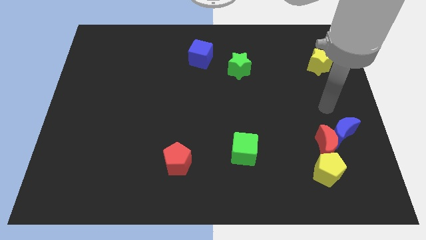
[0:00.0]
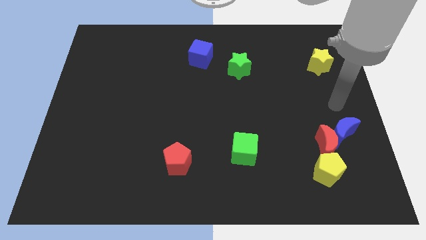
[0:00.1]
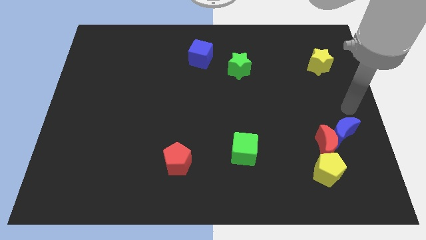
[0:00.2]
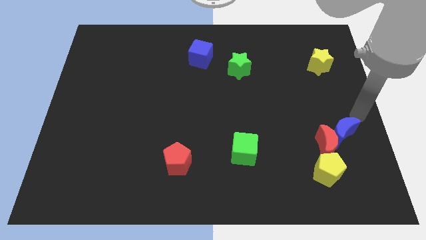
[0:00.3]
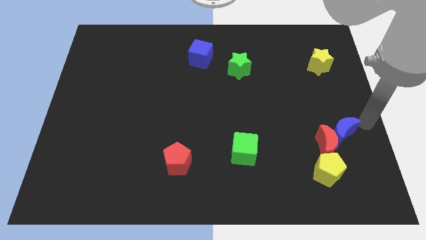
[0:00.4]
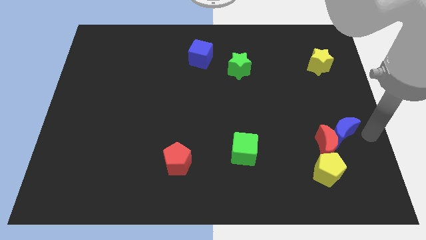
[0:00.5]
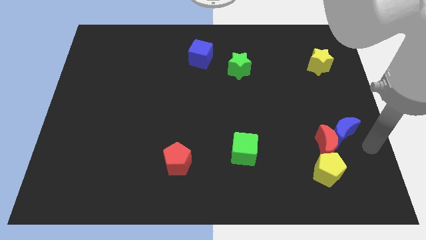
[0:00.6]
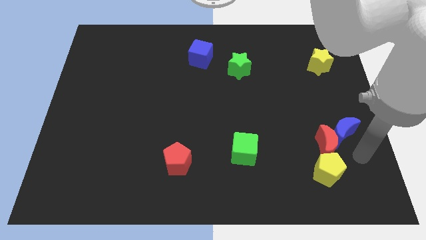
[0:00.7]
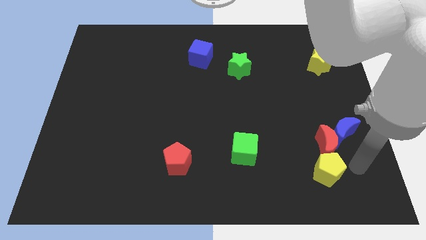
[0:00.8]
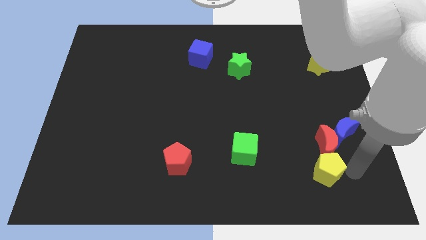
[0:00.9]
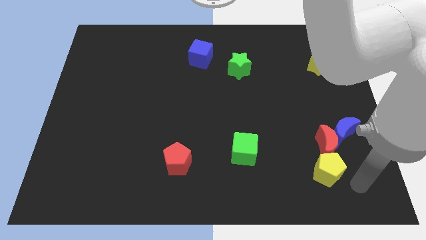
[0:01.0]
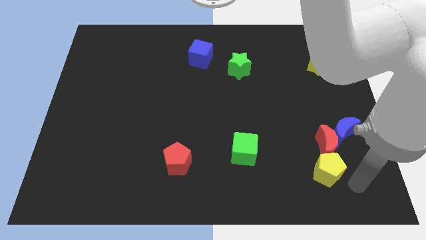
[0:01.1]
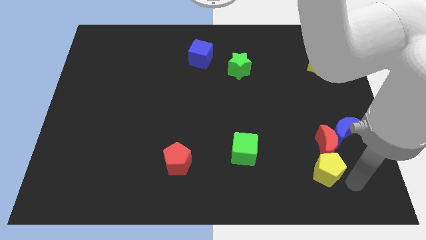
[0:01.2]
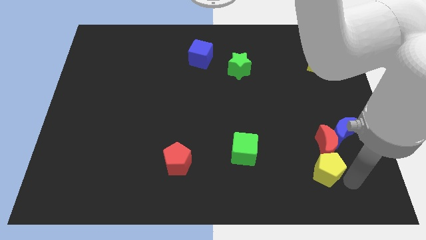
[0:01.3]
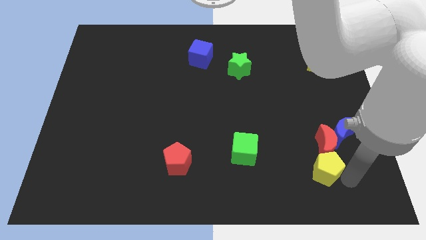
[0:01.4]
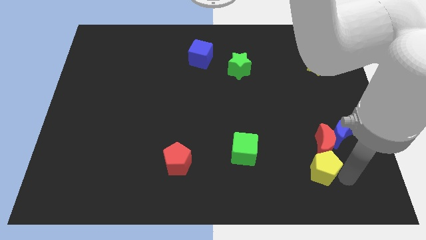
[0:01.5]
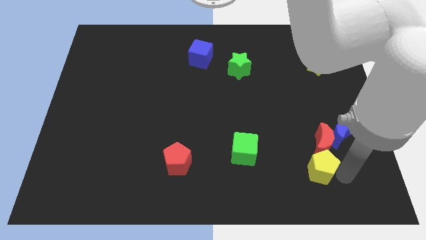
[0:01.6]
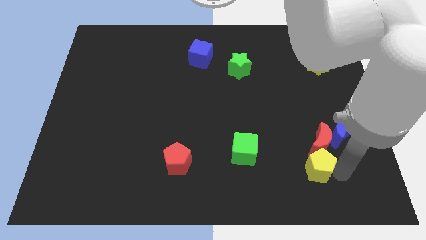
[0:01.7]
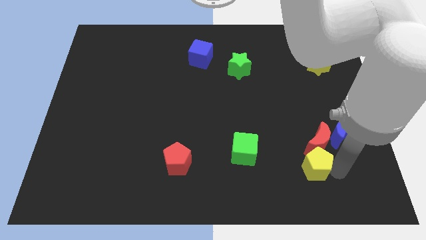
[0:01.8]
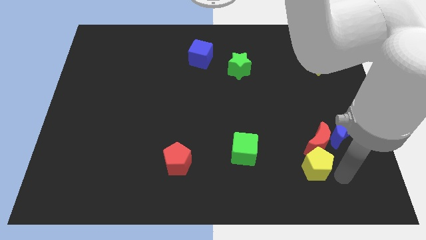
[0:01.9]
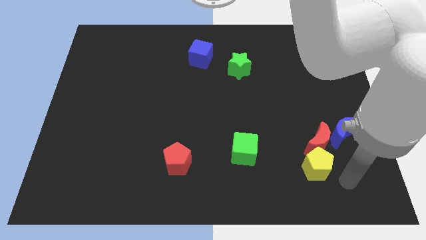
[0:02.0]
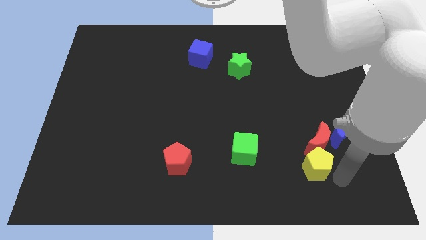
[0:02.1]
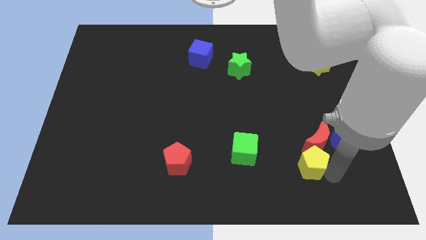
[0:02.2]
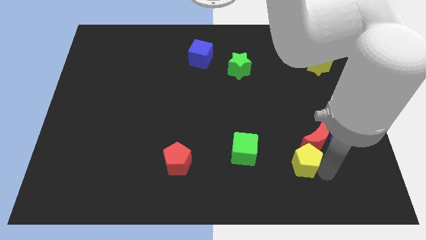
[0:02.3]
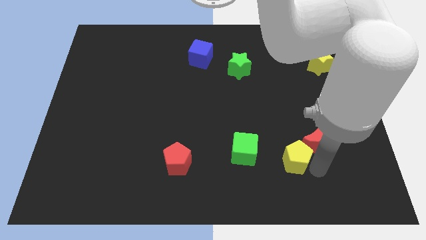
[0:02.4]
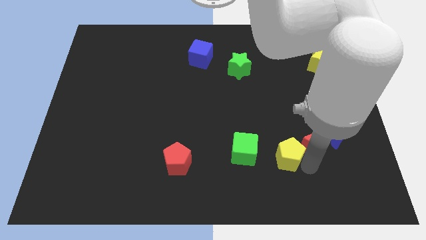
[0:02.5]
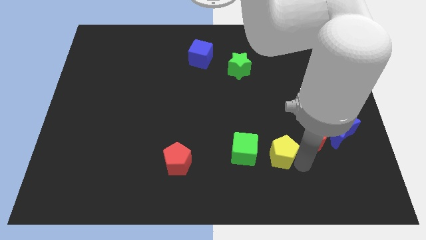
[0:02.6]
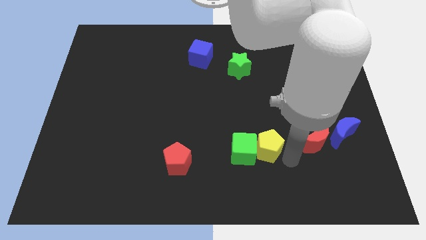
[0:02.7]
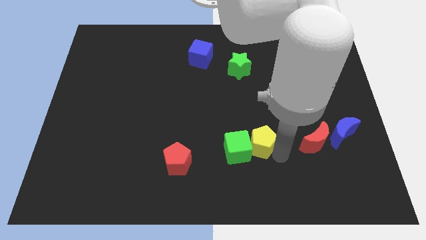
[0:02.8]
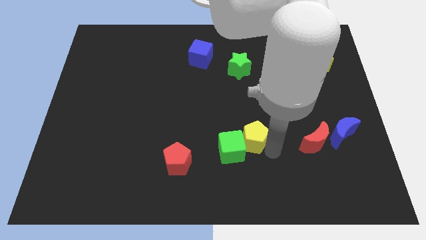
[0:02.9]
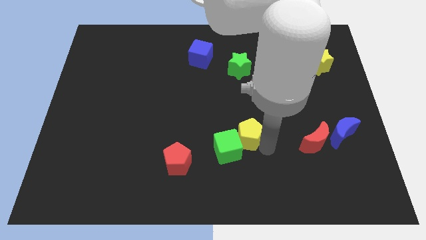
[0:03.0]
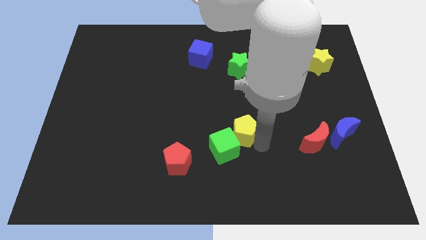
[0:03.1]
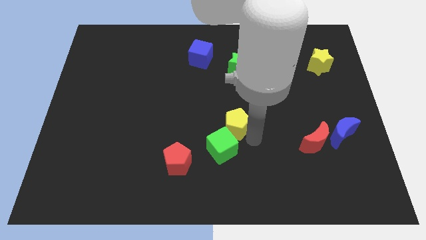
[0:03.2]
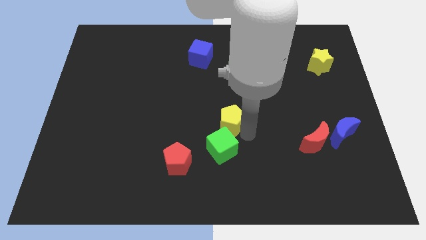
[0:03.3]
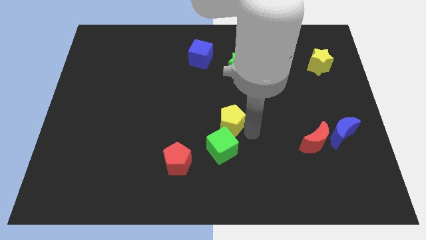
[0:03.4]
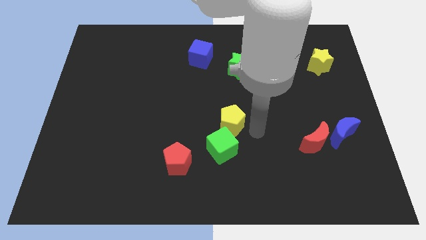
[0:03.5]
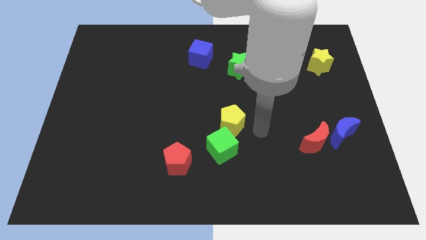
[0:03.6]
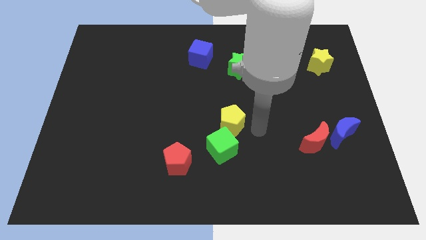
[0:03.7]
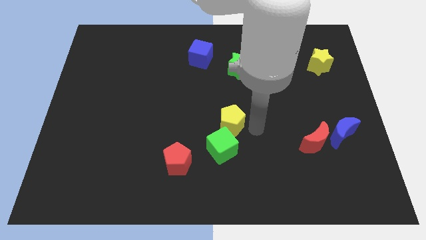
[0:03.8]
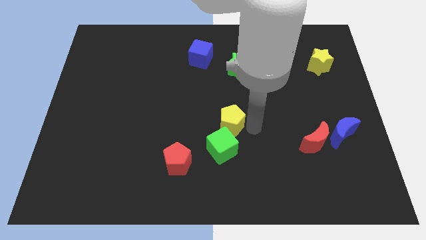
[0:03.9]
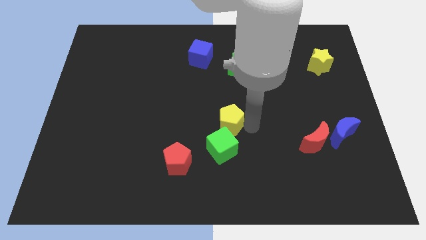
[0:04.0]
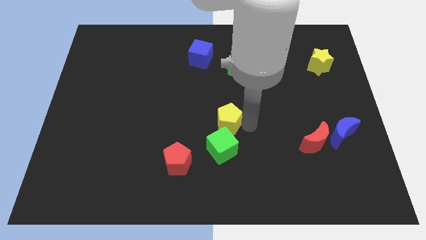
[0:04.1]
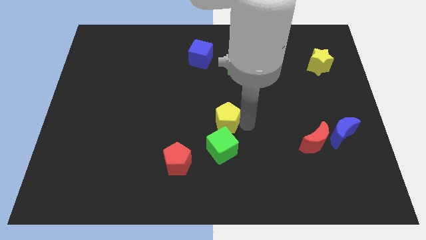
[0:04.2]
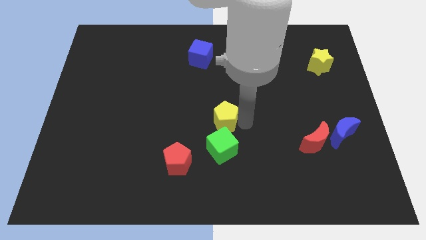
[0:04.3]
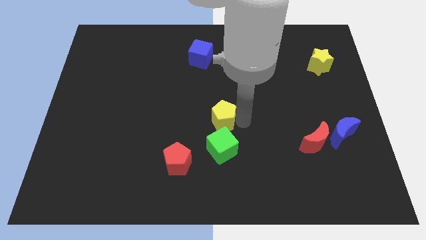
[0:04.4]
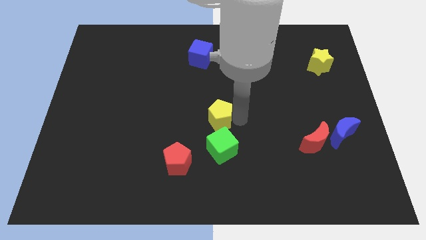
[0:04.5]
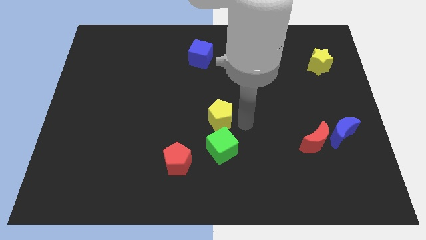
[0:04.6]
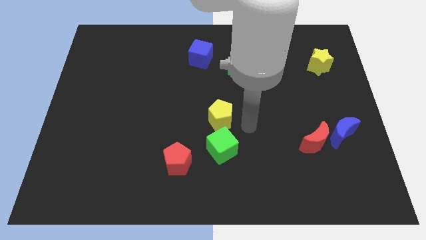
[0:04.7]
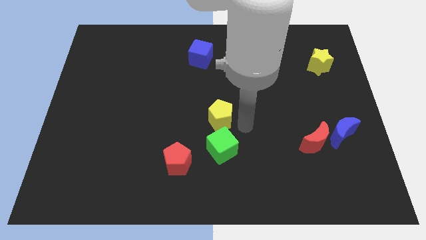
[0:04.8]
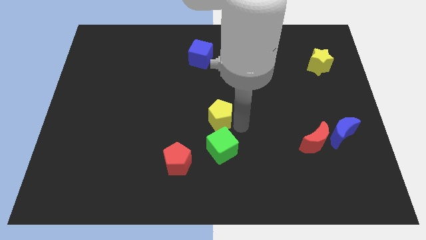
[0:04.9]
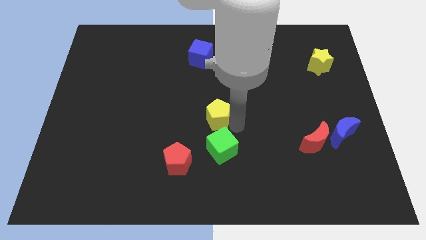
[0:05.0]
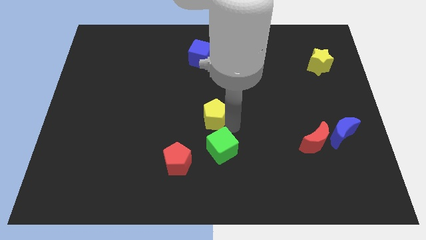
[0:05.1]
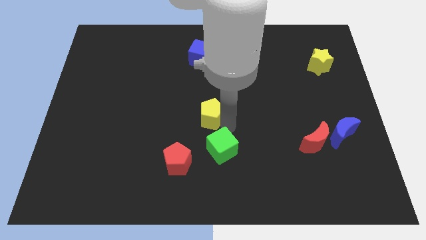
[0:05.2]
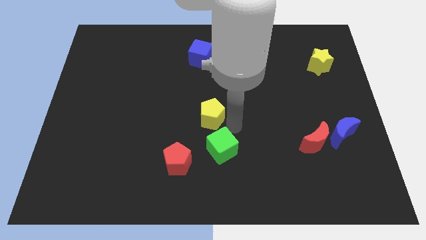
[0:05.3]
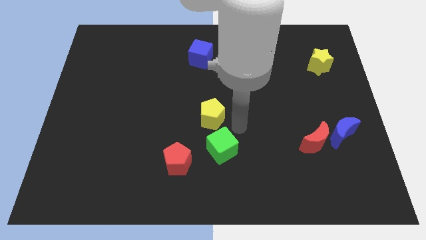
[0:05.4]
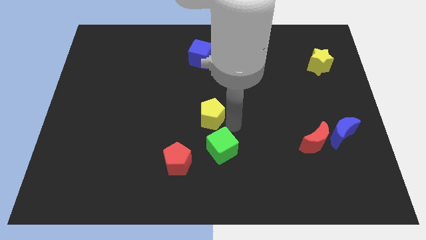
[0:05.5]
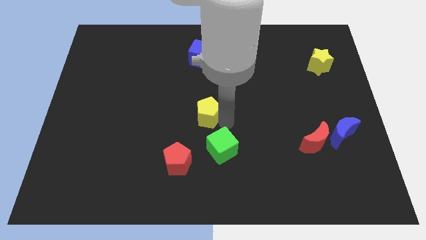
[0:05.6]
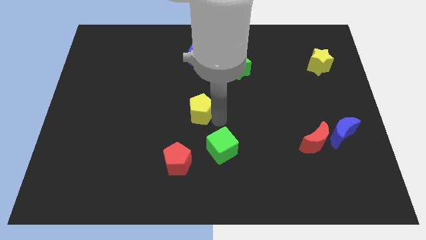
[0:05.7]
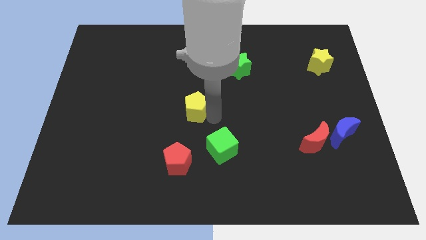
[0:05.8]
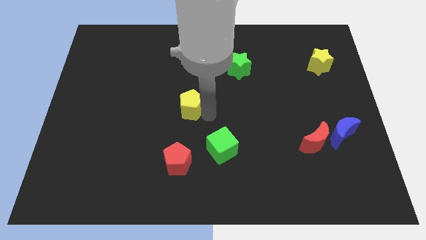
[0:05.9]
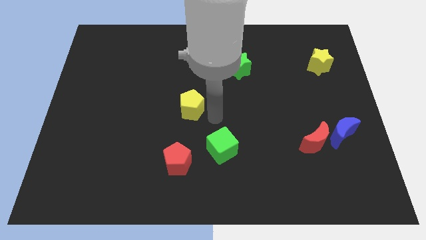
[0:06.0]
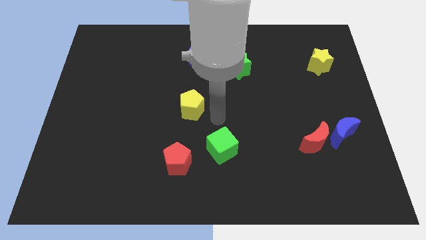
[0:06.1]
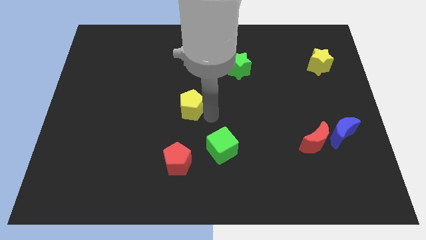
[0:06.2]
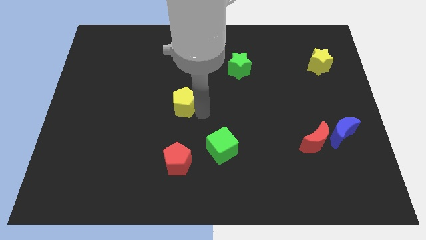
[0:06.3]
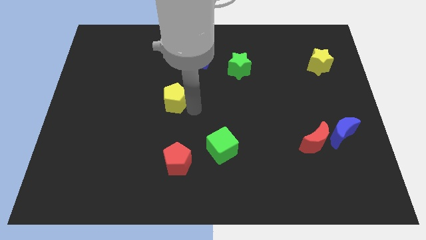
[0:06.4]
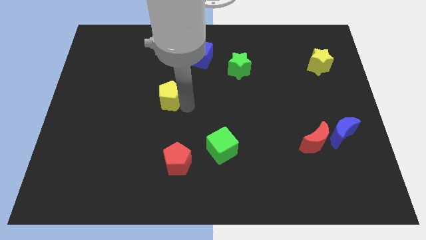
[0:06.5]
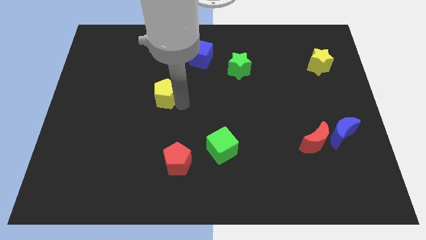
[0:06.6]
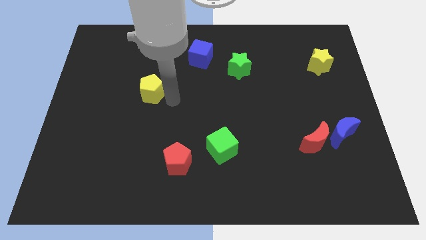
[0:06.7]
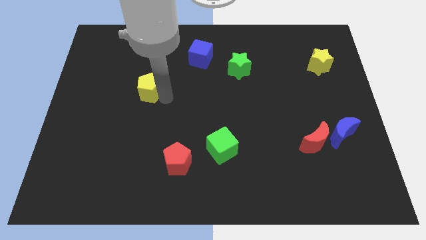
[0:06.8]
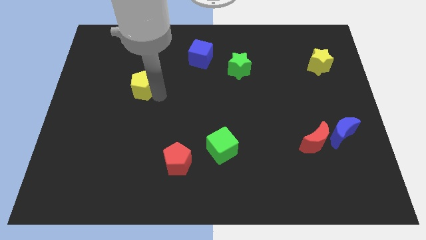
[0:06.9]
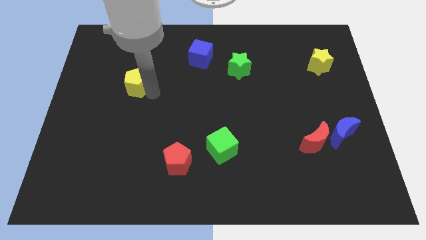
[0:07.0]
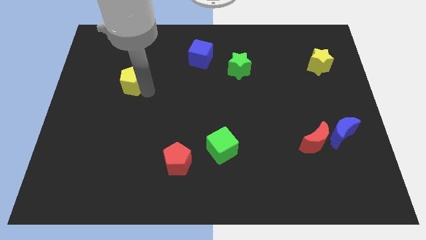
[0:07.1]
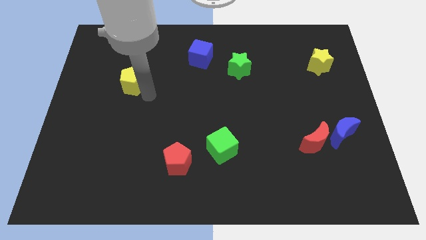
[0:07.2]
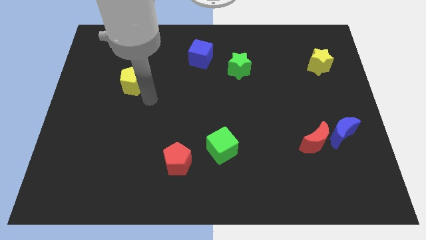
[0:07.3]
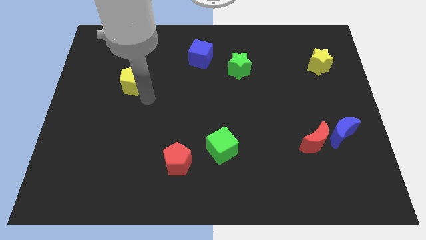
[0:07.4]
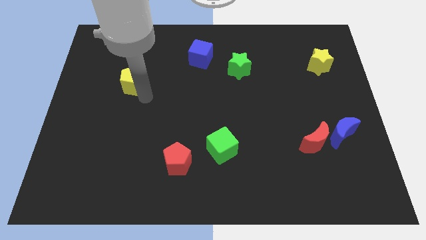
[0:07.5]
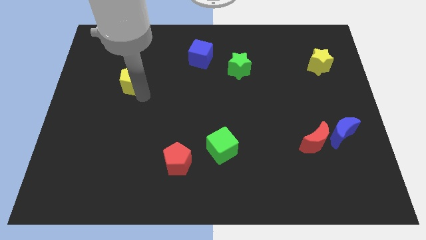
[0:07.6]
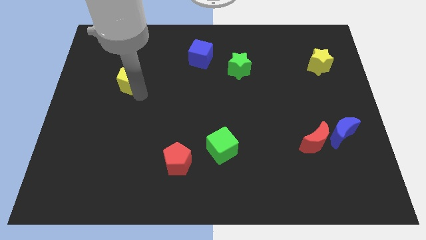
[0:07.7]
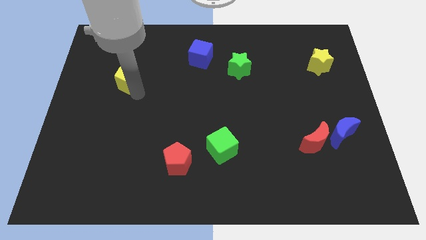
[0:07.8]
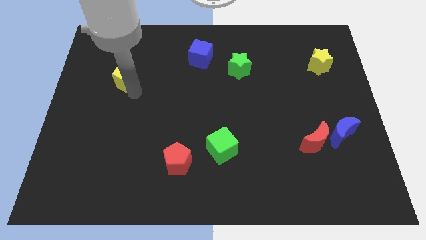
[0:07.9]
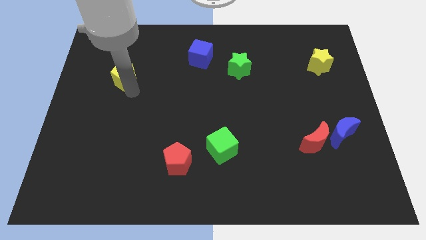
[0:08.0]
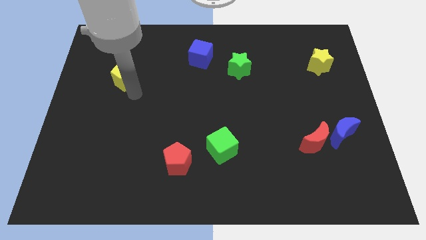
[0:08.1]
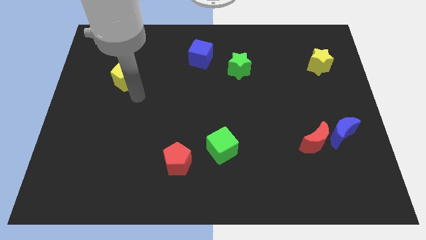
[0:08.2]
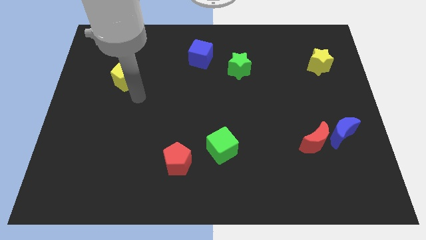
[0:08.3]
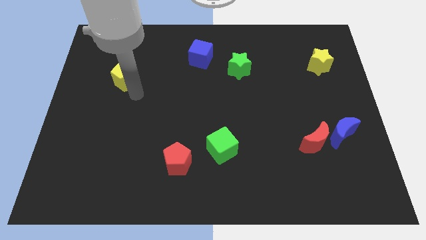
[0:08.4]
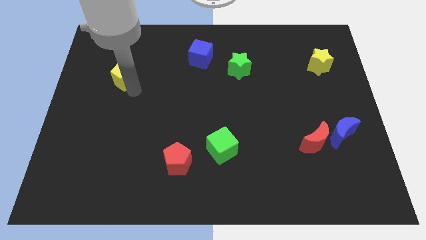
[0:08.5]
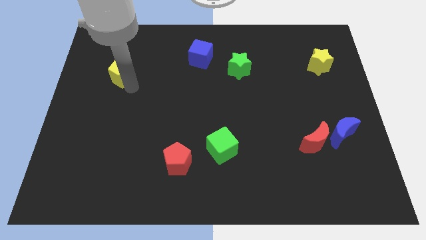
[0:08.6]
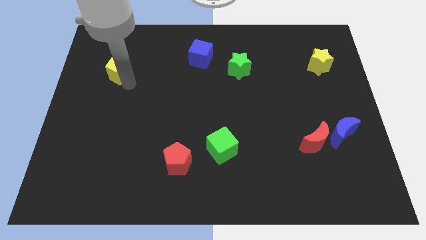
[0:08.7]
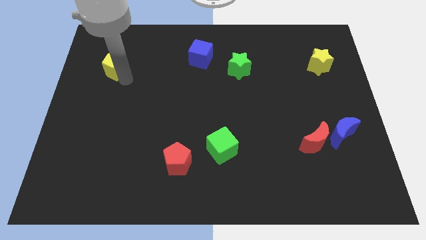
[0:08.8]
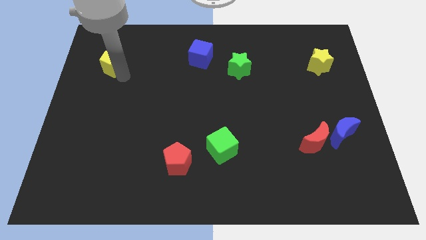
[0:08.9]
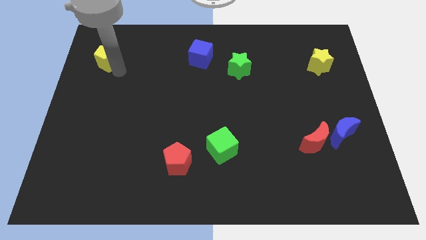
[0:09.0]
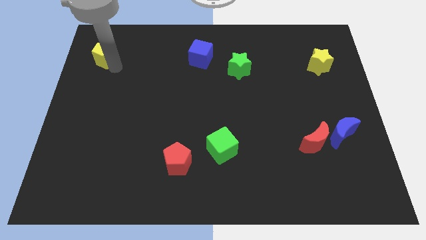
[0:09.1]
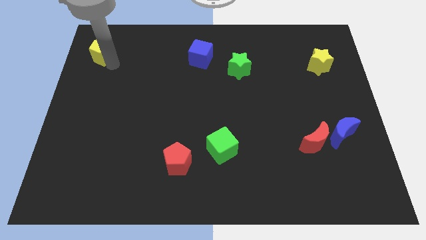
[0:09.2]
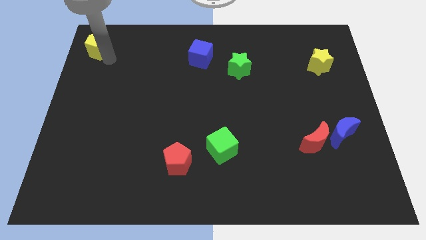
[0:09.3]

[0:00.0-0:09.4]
slide the yellow pentagon to the top left
